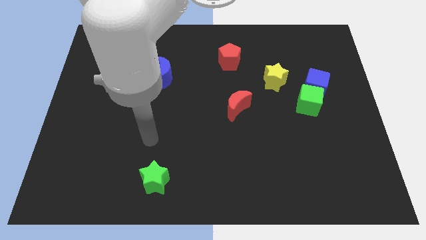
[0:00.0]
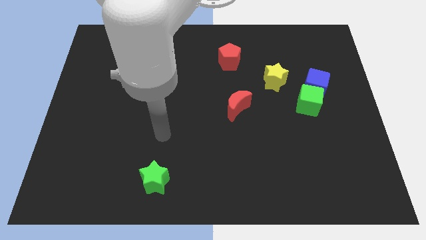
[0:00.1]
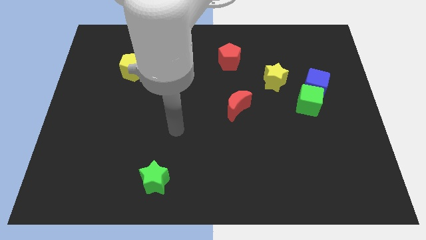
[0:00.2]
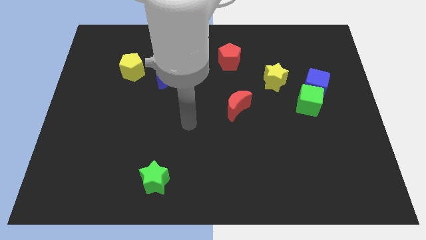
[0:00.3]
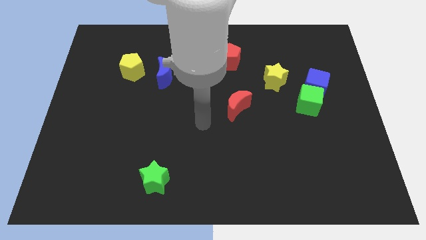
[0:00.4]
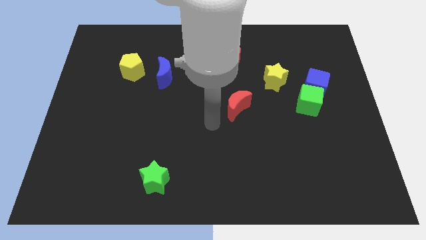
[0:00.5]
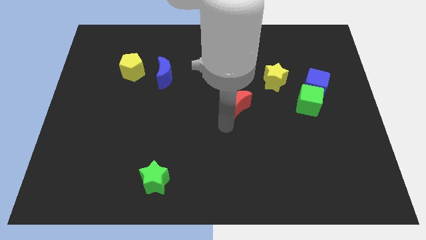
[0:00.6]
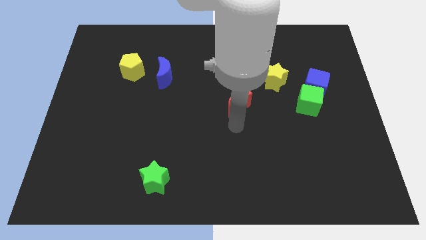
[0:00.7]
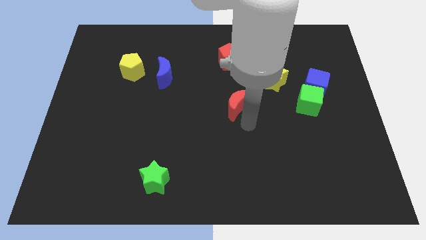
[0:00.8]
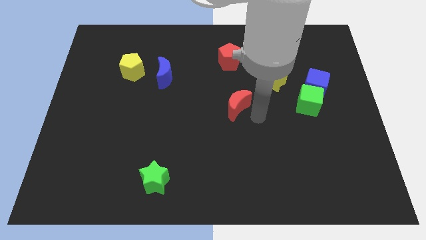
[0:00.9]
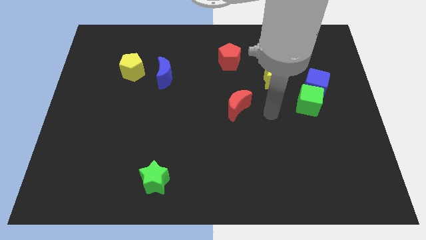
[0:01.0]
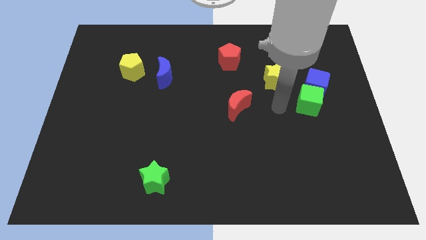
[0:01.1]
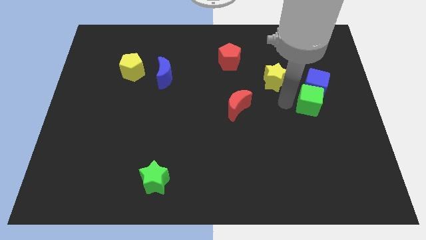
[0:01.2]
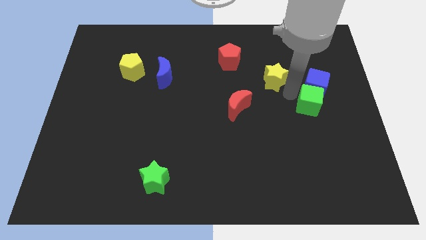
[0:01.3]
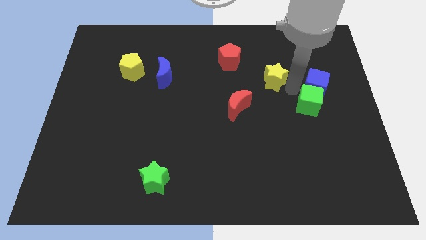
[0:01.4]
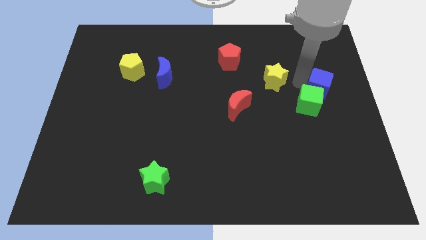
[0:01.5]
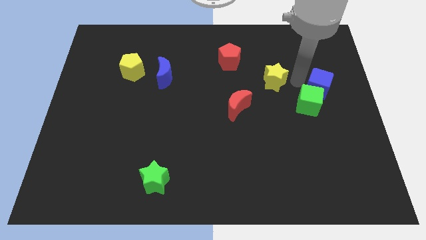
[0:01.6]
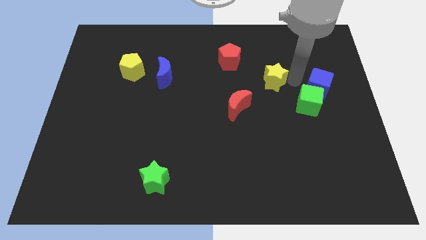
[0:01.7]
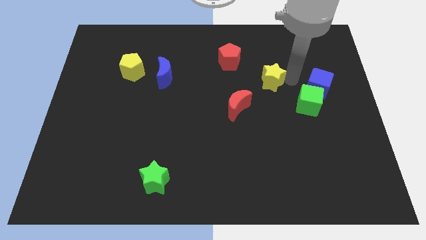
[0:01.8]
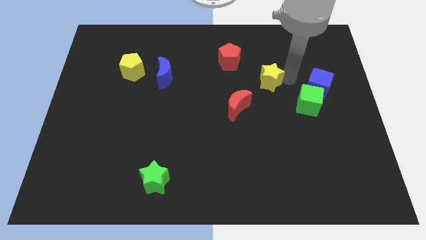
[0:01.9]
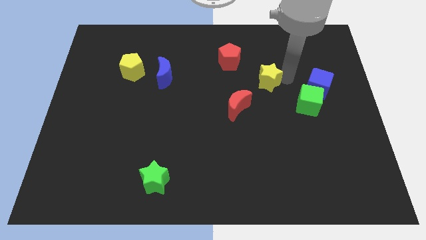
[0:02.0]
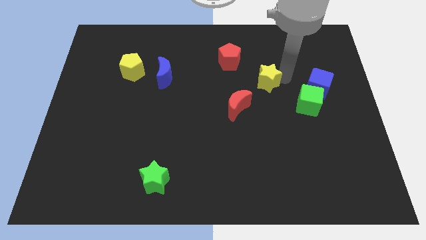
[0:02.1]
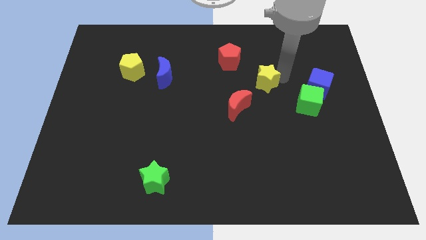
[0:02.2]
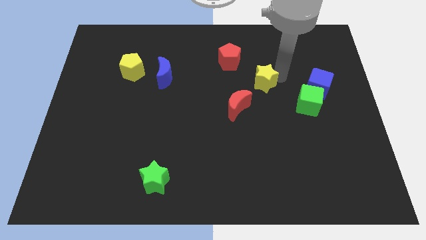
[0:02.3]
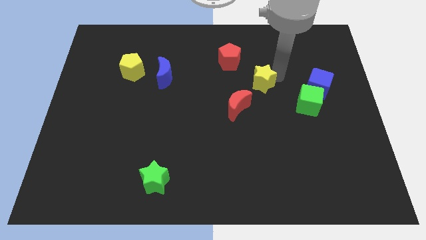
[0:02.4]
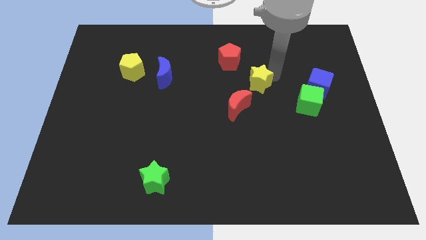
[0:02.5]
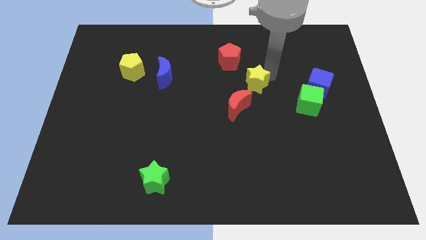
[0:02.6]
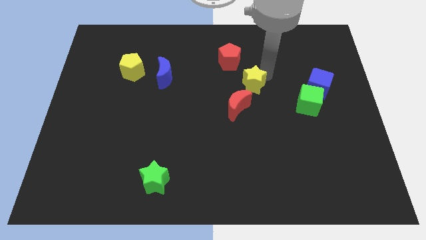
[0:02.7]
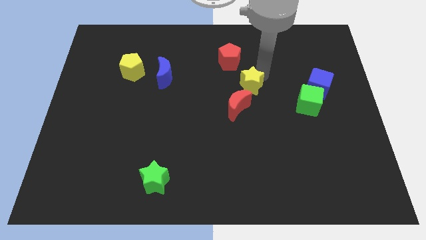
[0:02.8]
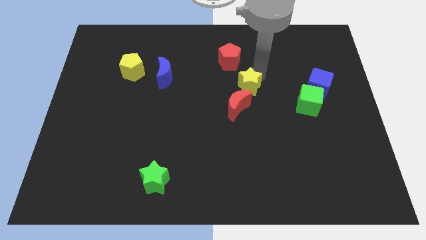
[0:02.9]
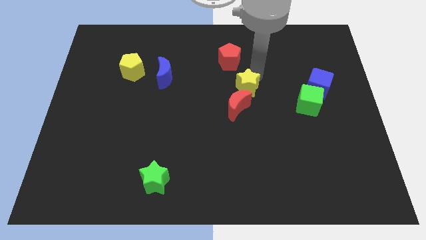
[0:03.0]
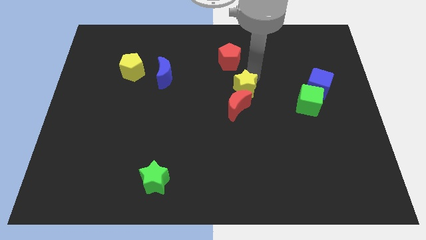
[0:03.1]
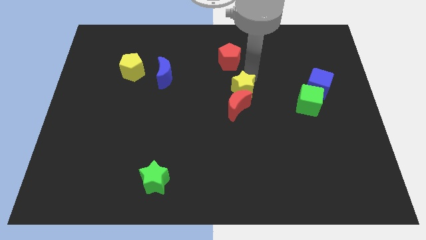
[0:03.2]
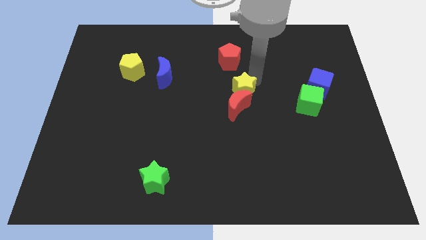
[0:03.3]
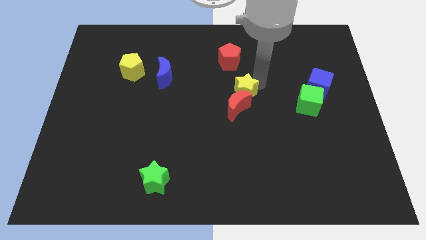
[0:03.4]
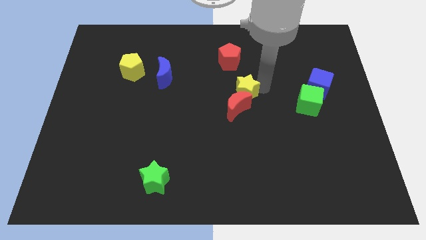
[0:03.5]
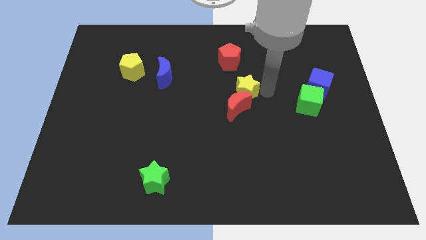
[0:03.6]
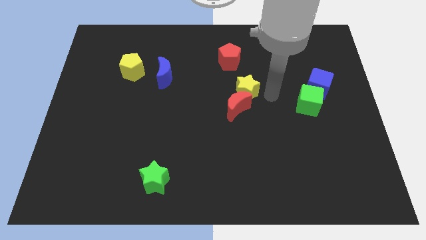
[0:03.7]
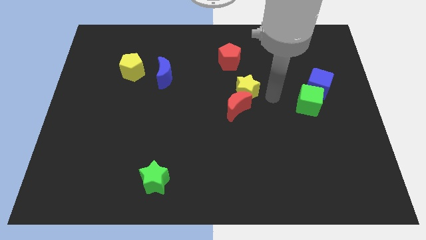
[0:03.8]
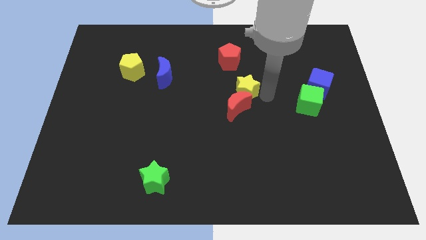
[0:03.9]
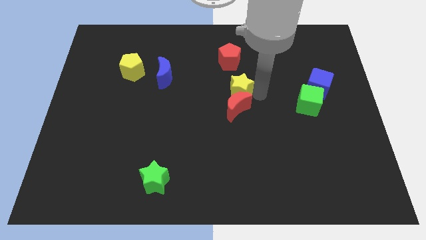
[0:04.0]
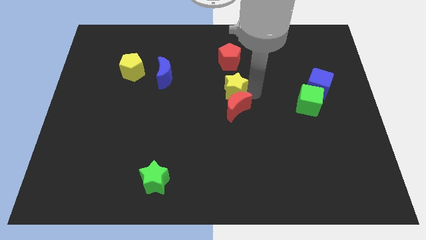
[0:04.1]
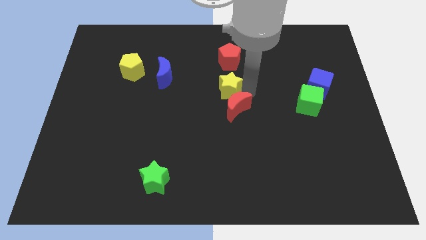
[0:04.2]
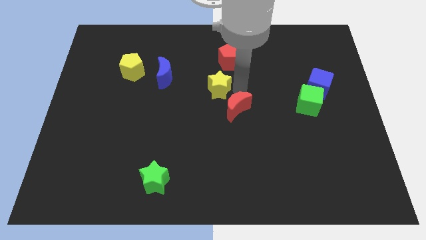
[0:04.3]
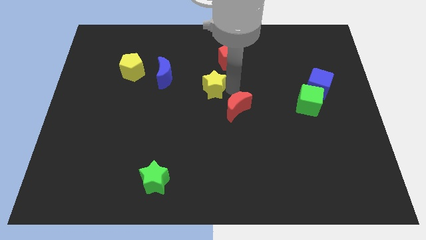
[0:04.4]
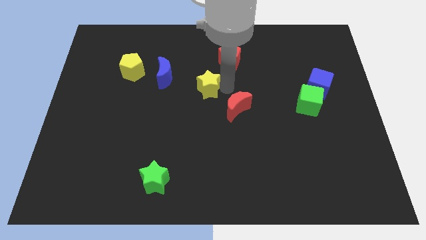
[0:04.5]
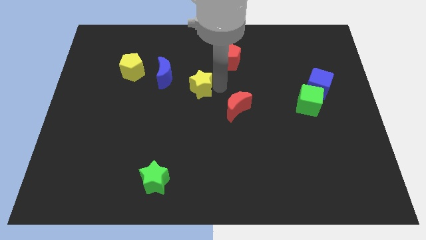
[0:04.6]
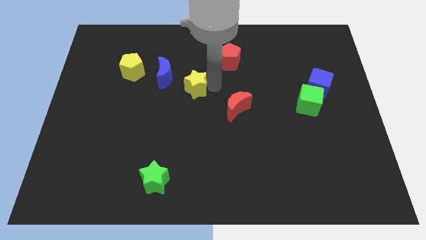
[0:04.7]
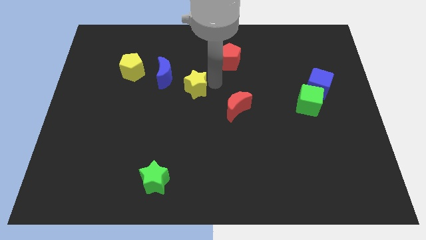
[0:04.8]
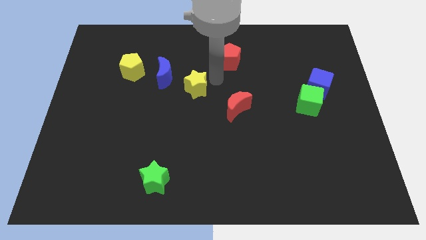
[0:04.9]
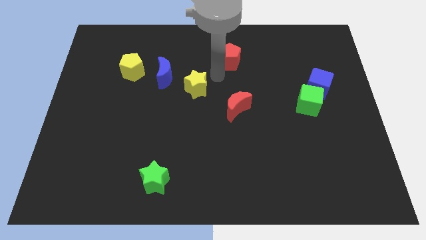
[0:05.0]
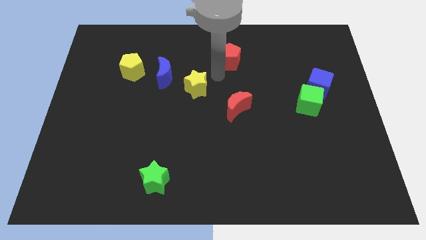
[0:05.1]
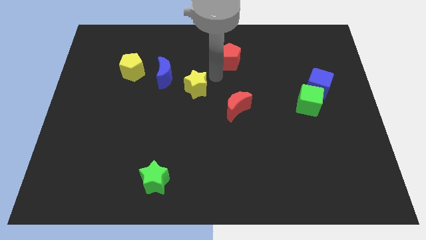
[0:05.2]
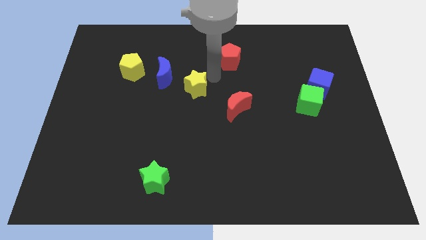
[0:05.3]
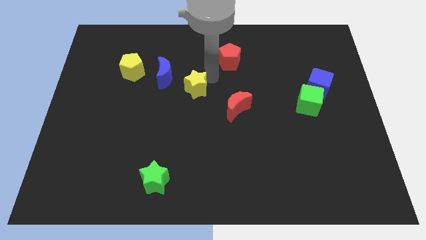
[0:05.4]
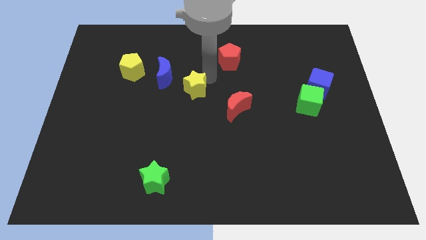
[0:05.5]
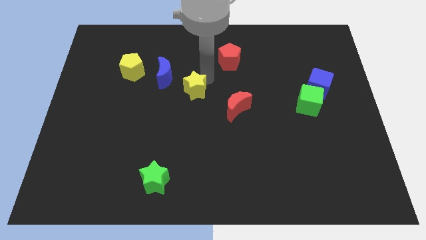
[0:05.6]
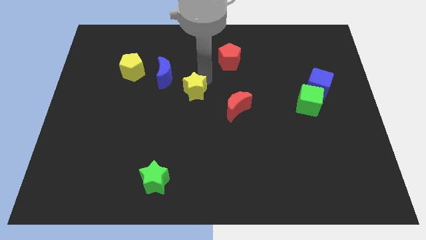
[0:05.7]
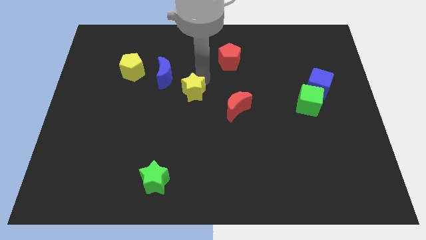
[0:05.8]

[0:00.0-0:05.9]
slide the yellow star left

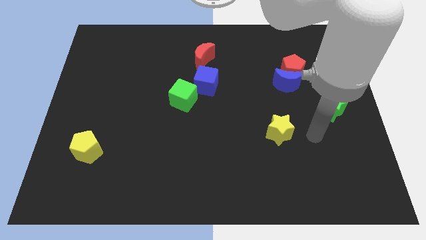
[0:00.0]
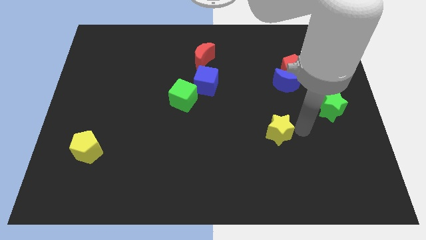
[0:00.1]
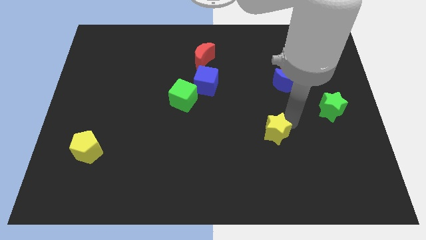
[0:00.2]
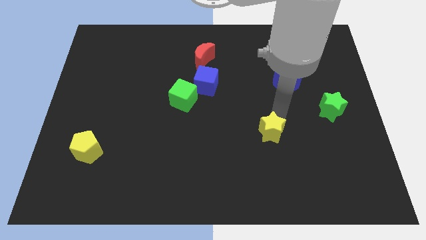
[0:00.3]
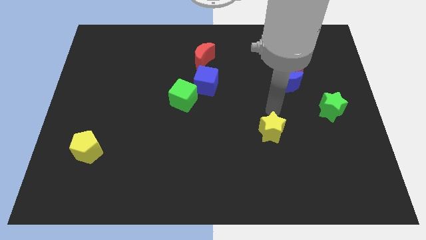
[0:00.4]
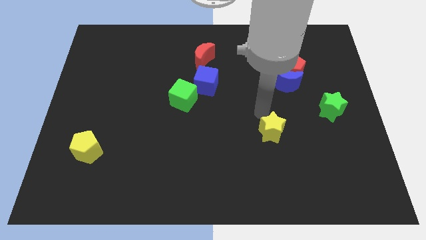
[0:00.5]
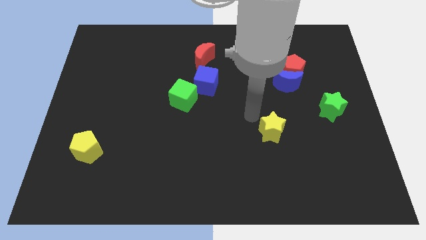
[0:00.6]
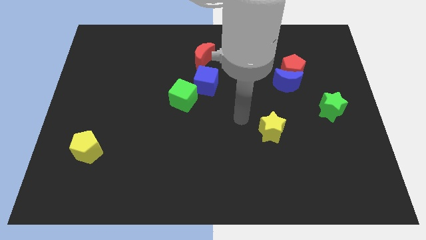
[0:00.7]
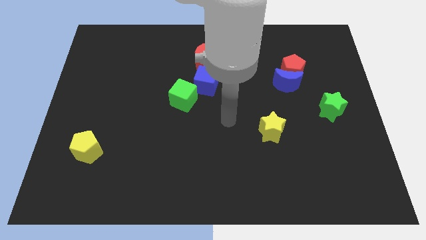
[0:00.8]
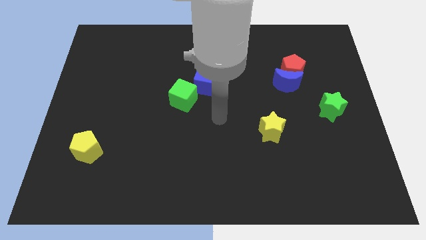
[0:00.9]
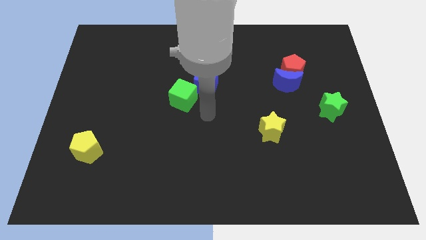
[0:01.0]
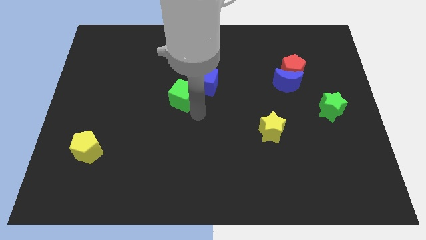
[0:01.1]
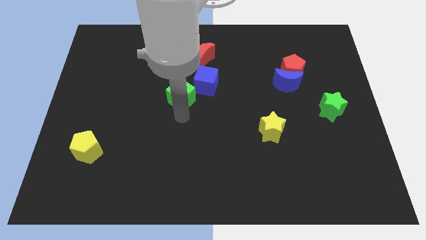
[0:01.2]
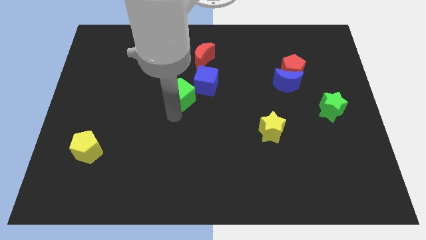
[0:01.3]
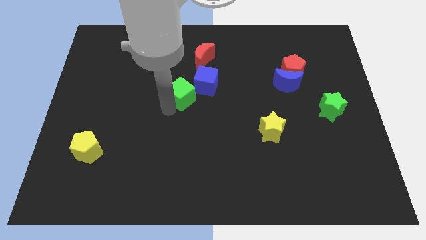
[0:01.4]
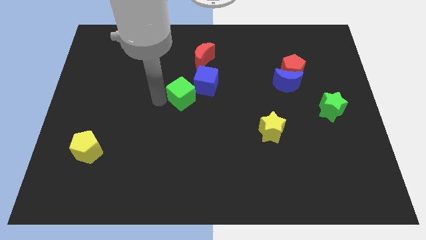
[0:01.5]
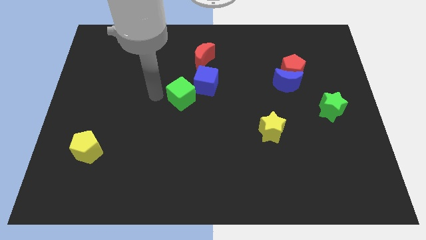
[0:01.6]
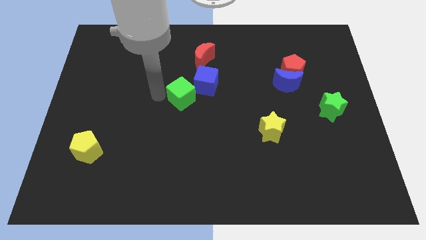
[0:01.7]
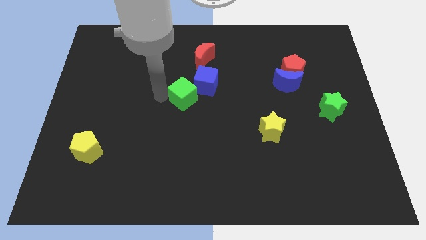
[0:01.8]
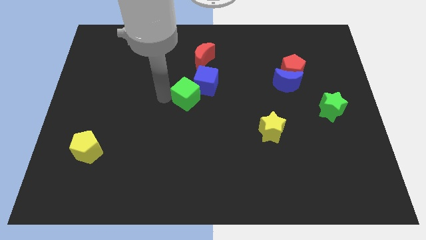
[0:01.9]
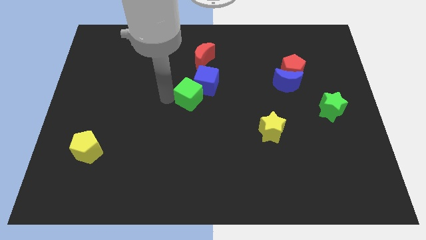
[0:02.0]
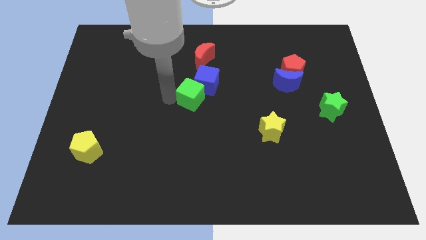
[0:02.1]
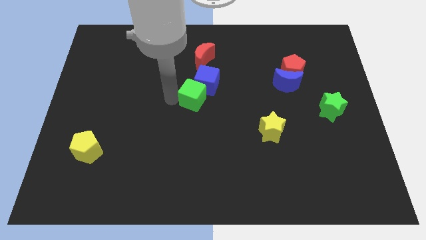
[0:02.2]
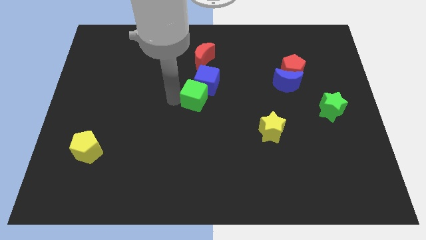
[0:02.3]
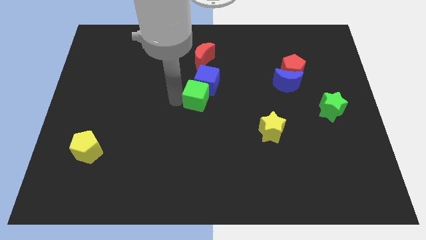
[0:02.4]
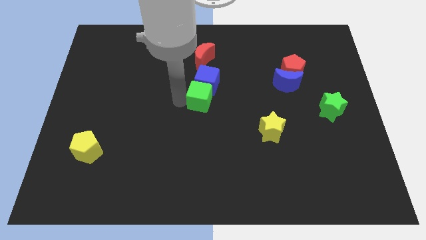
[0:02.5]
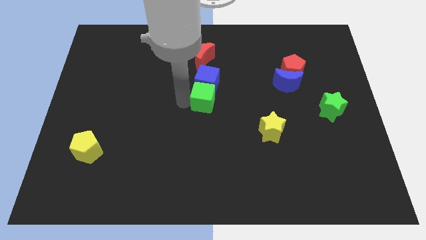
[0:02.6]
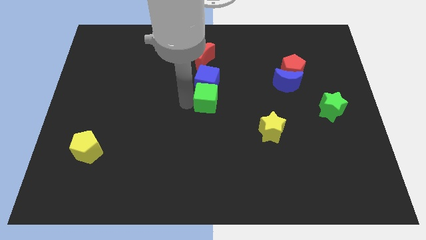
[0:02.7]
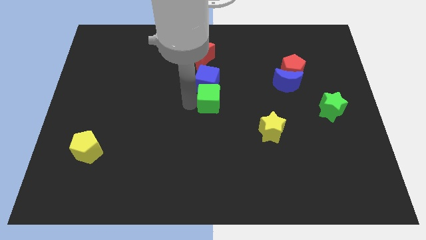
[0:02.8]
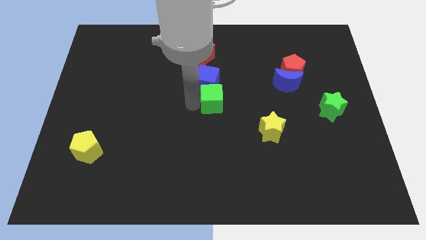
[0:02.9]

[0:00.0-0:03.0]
push the green cube right a bit
